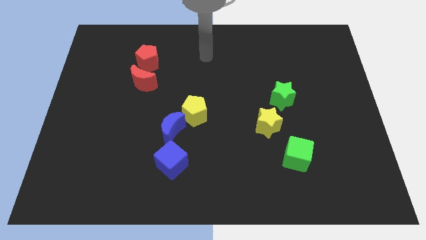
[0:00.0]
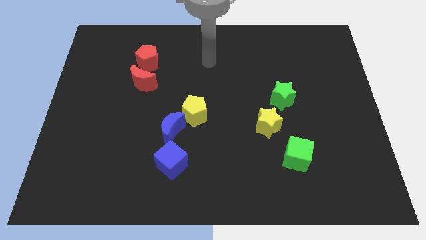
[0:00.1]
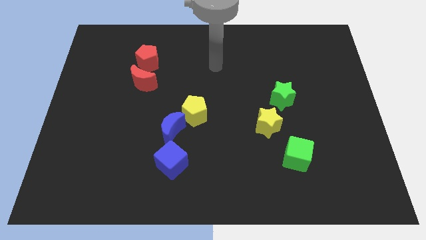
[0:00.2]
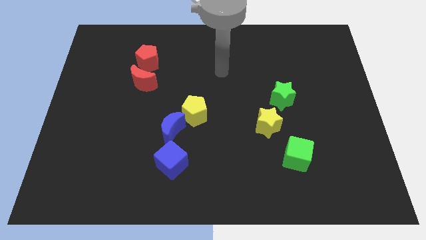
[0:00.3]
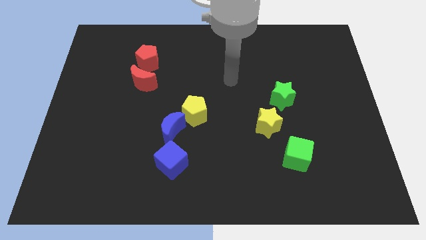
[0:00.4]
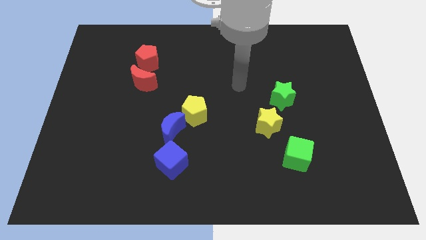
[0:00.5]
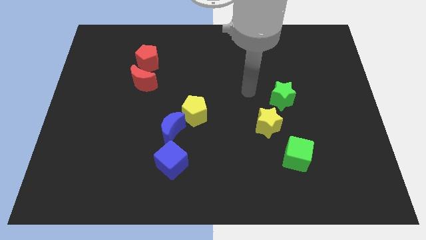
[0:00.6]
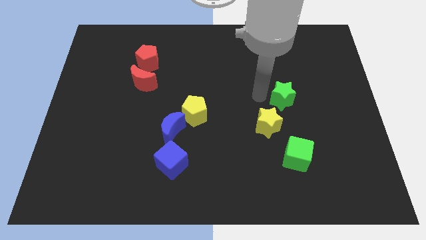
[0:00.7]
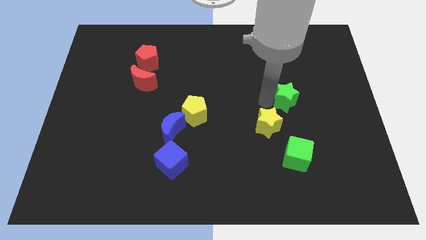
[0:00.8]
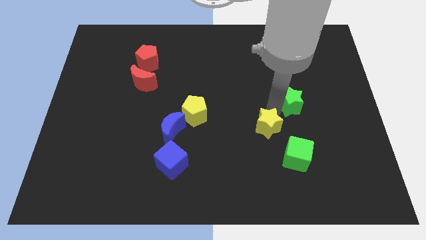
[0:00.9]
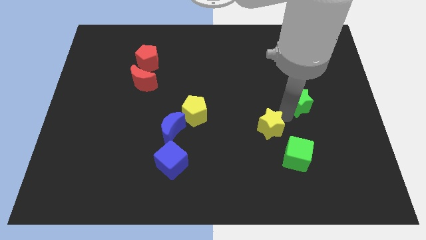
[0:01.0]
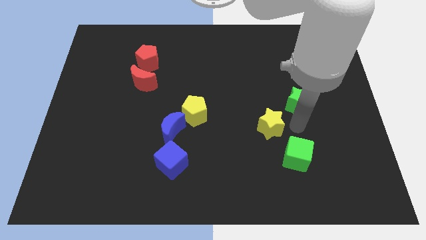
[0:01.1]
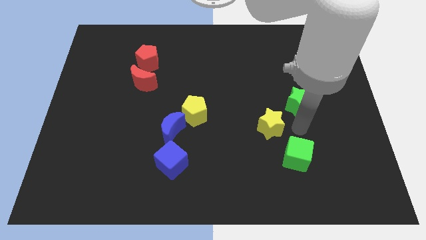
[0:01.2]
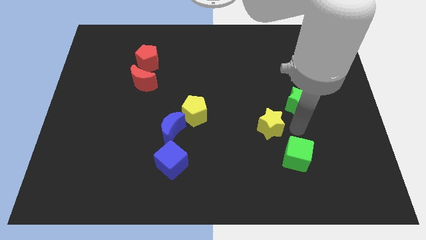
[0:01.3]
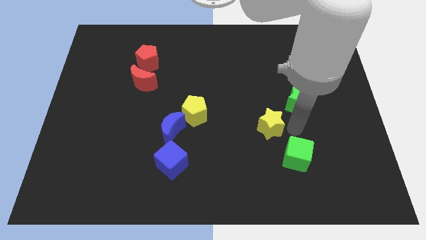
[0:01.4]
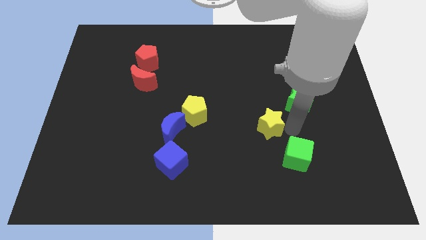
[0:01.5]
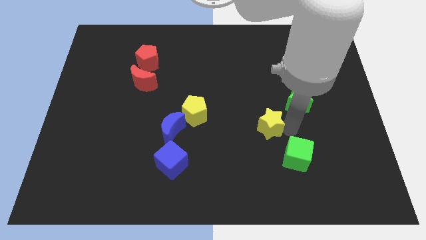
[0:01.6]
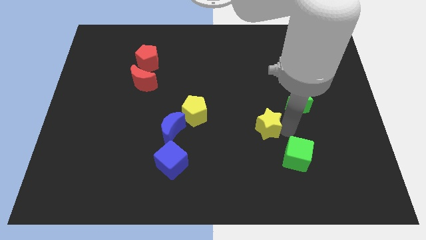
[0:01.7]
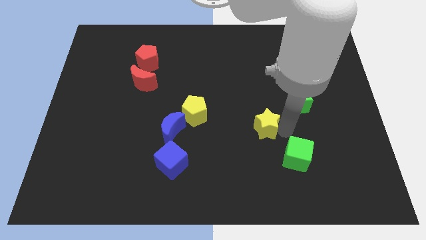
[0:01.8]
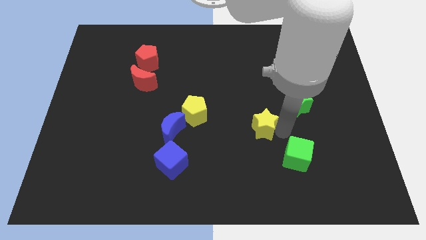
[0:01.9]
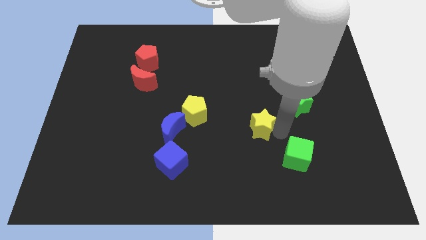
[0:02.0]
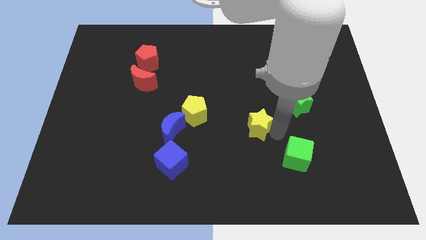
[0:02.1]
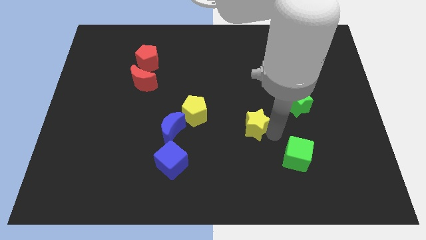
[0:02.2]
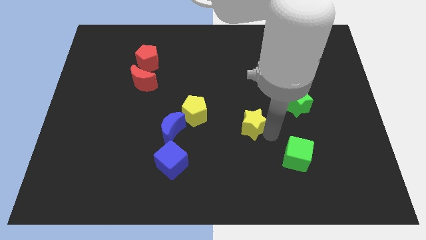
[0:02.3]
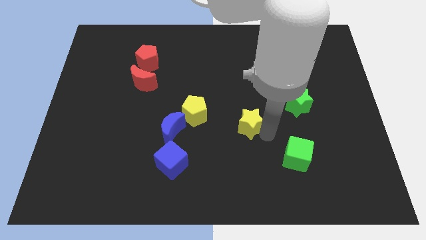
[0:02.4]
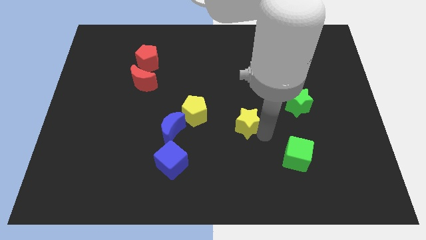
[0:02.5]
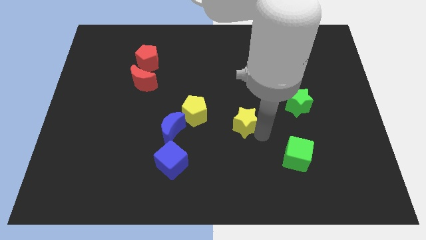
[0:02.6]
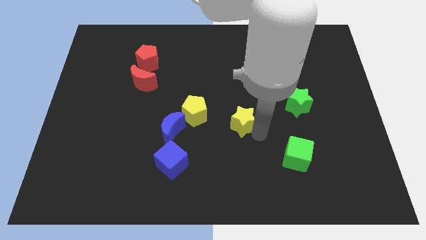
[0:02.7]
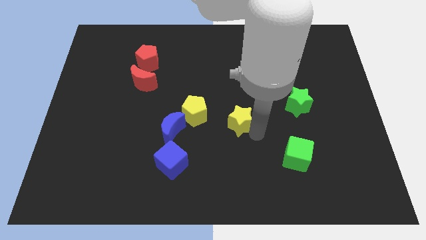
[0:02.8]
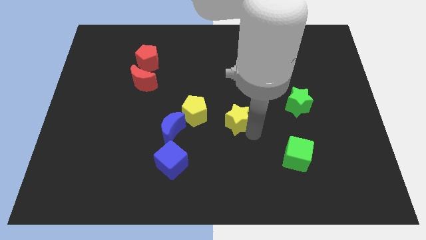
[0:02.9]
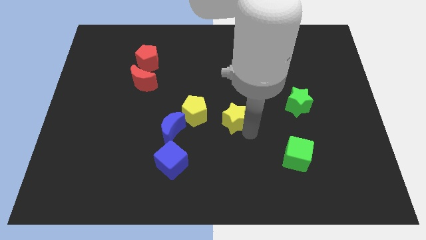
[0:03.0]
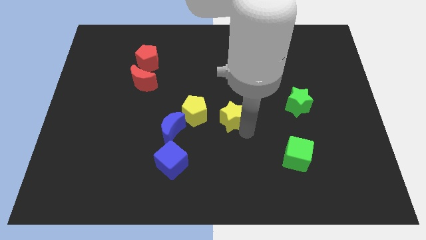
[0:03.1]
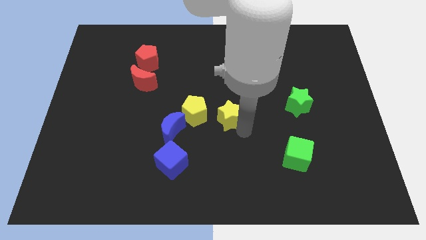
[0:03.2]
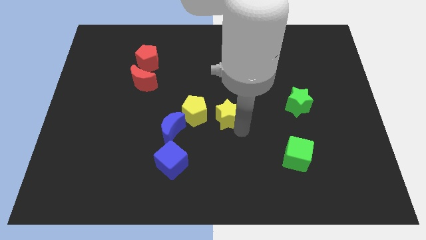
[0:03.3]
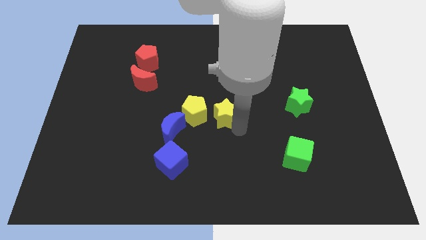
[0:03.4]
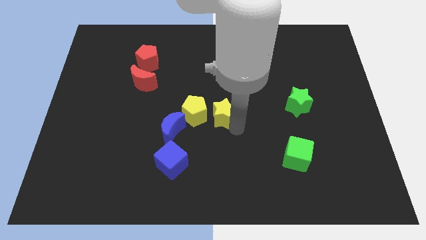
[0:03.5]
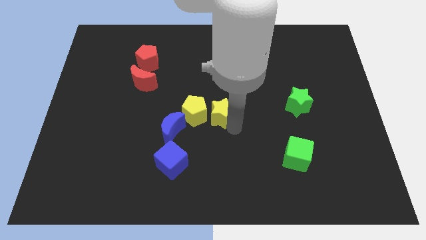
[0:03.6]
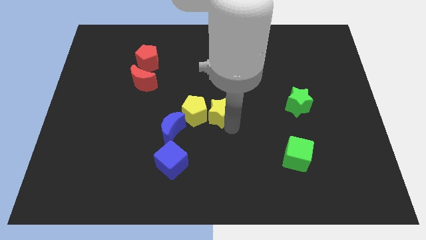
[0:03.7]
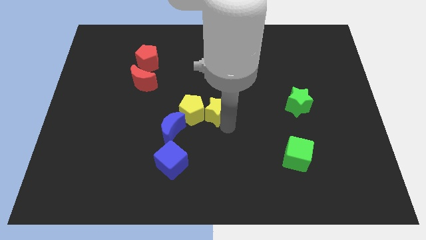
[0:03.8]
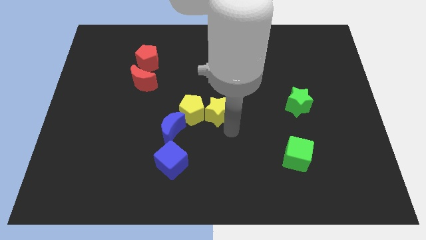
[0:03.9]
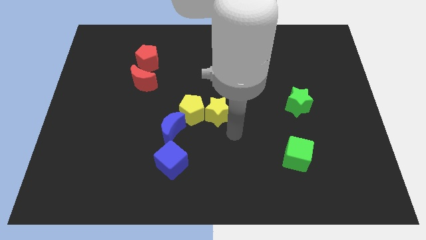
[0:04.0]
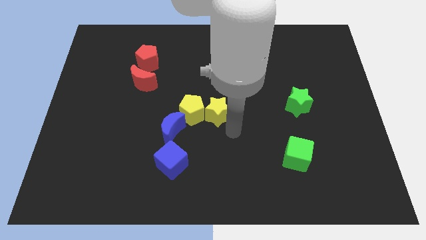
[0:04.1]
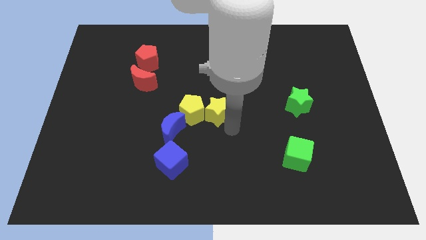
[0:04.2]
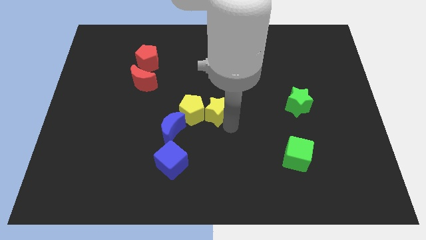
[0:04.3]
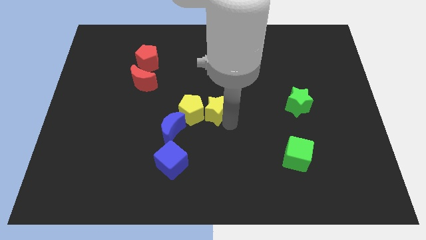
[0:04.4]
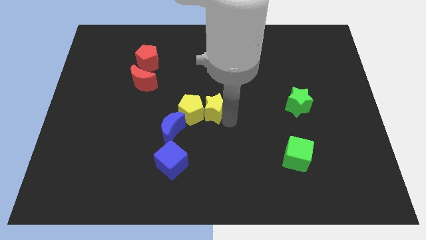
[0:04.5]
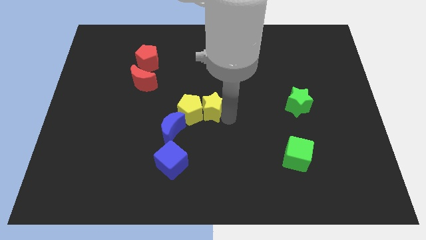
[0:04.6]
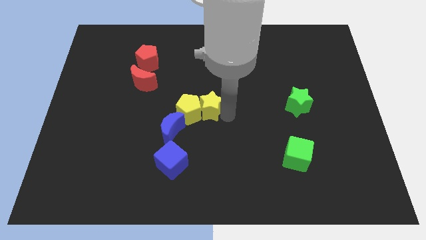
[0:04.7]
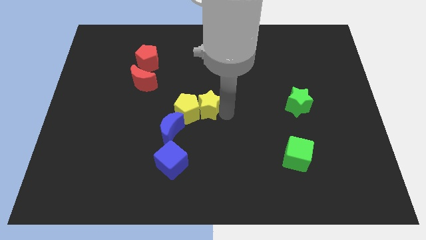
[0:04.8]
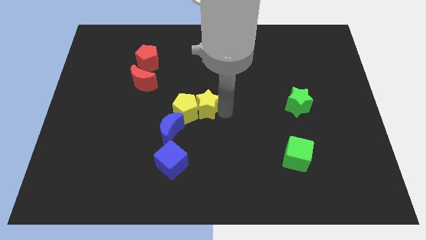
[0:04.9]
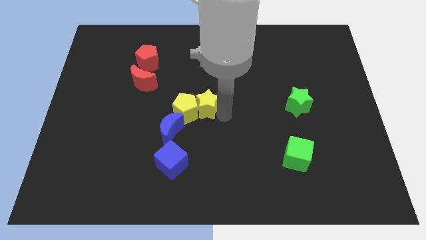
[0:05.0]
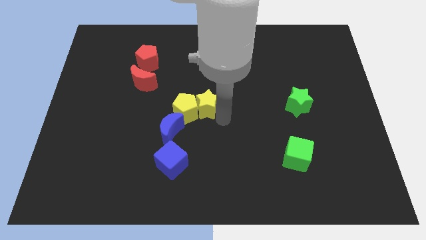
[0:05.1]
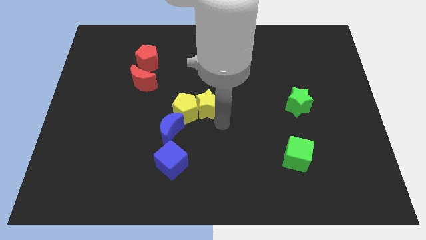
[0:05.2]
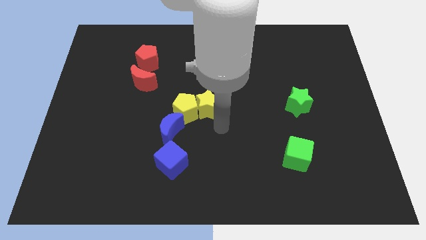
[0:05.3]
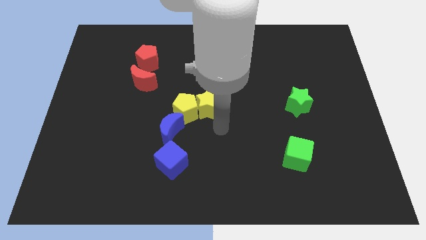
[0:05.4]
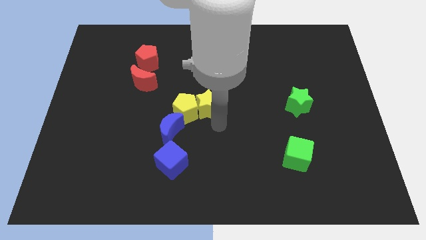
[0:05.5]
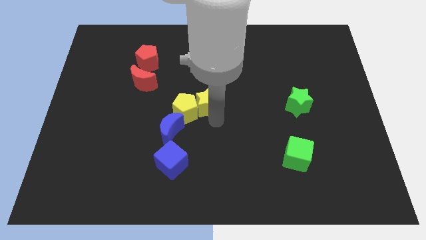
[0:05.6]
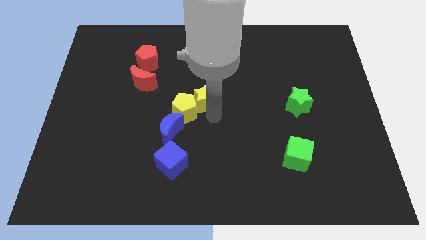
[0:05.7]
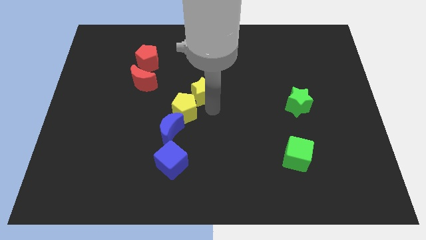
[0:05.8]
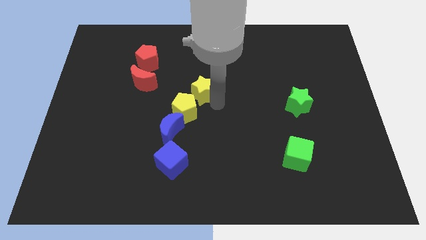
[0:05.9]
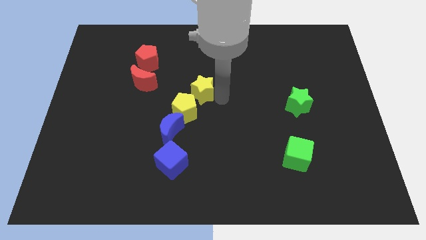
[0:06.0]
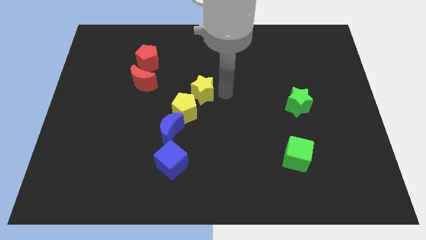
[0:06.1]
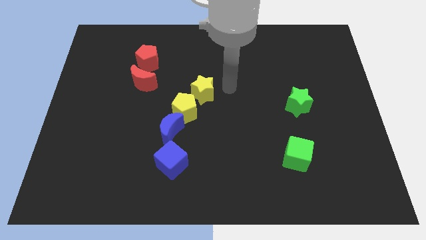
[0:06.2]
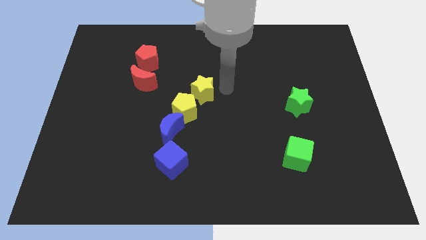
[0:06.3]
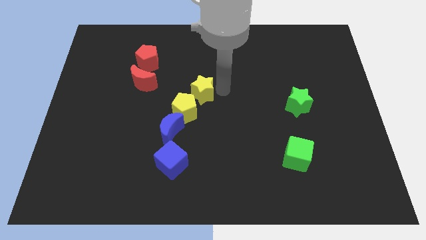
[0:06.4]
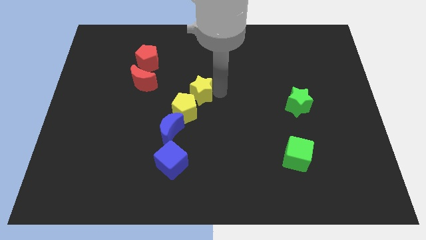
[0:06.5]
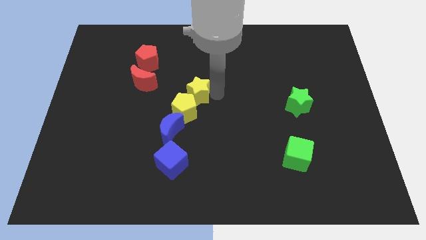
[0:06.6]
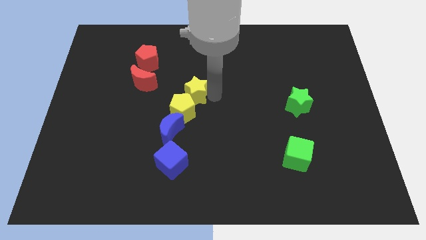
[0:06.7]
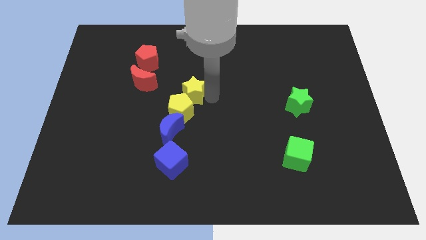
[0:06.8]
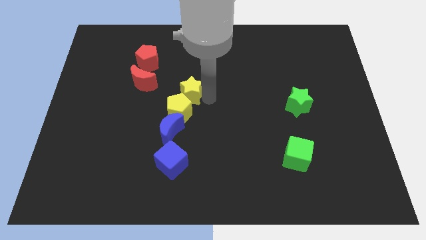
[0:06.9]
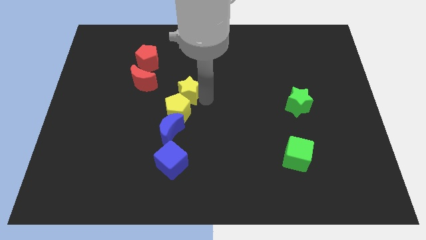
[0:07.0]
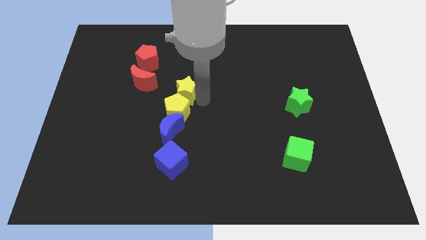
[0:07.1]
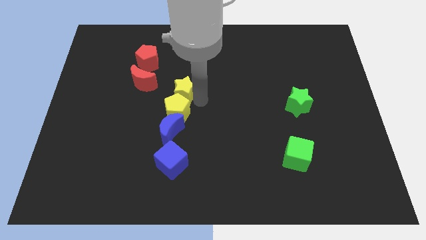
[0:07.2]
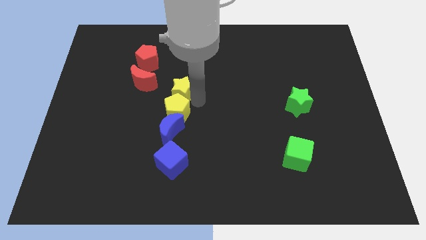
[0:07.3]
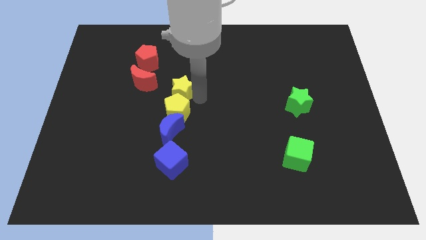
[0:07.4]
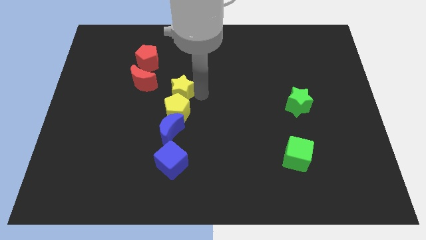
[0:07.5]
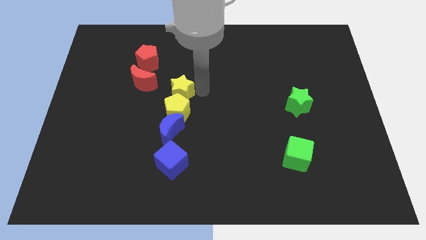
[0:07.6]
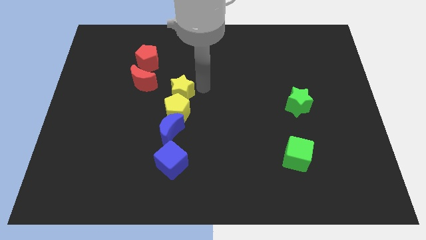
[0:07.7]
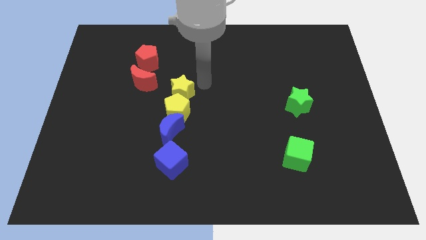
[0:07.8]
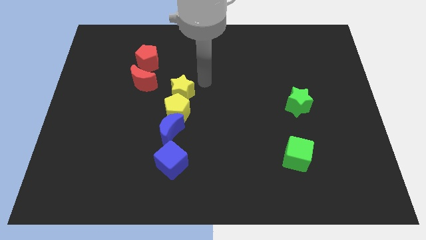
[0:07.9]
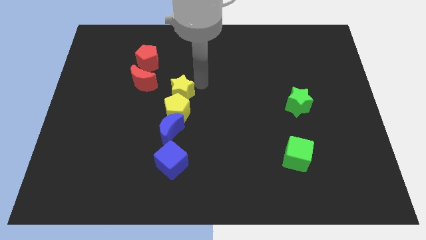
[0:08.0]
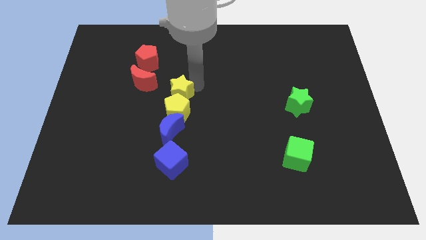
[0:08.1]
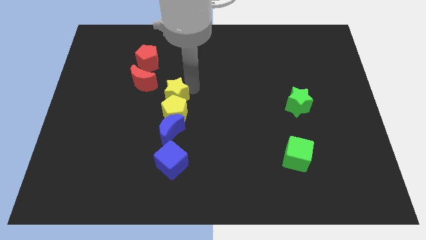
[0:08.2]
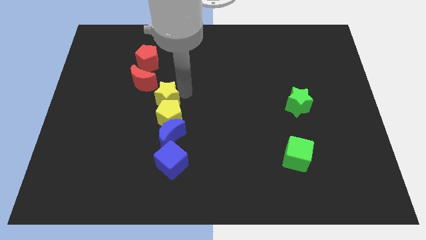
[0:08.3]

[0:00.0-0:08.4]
move the yellow star left
